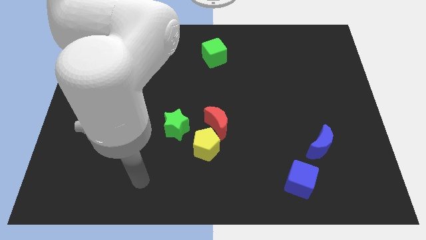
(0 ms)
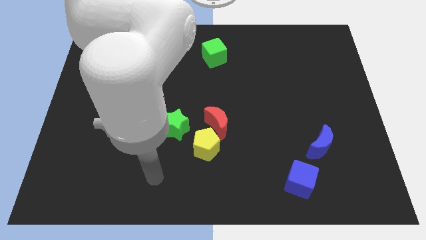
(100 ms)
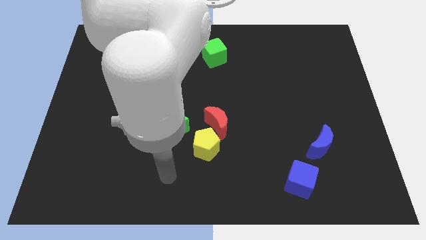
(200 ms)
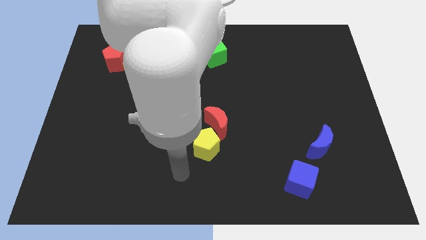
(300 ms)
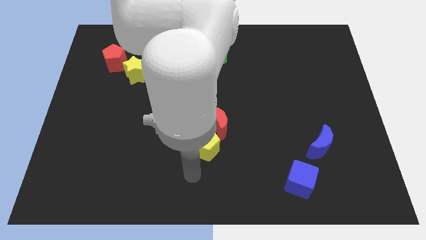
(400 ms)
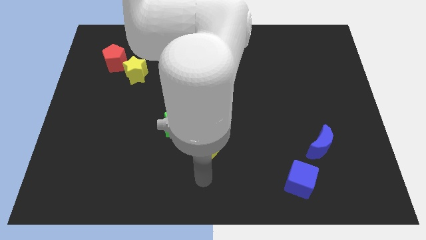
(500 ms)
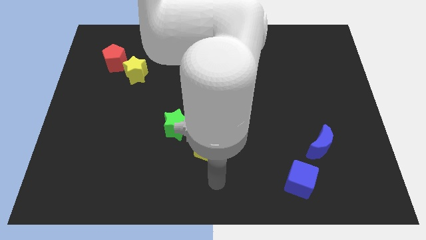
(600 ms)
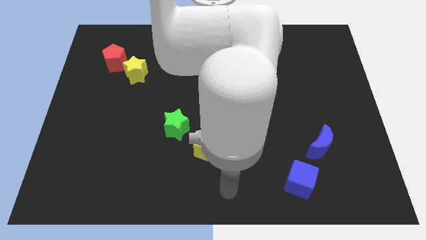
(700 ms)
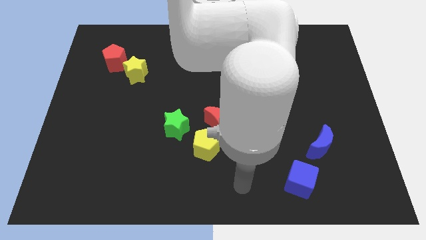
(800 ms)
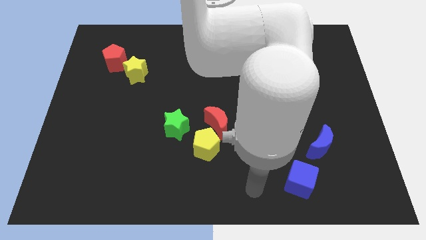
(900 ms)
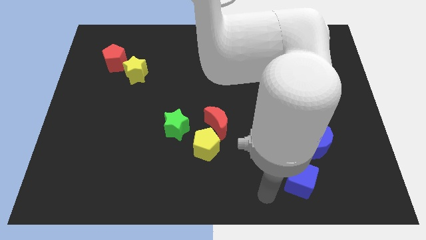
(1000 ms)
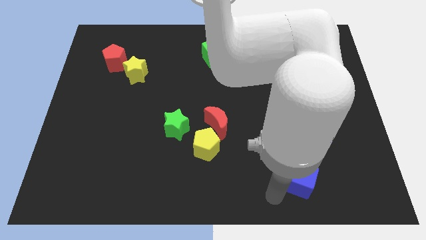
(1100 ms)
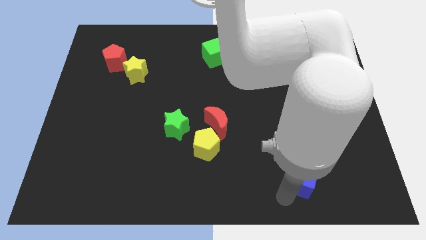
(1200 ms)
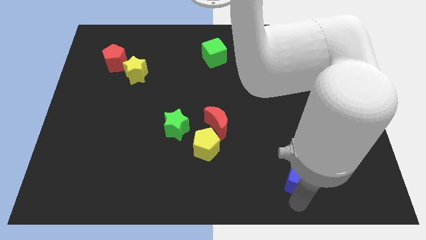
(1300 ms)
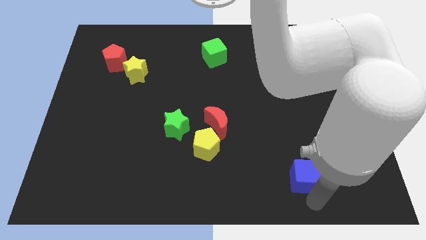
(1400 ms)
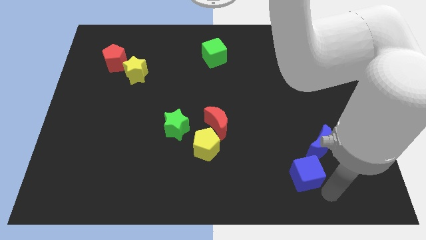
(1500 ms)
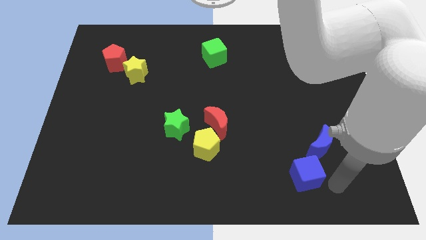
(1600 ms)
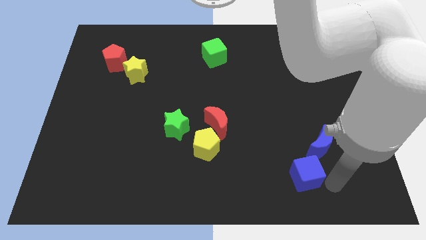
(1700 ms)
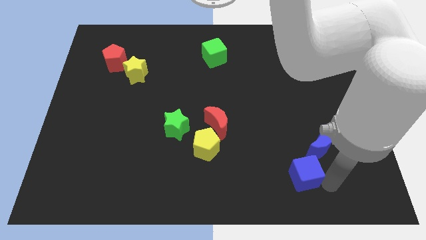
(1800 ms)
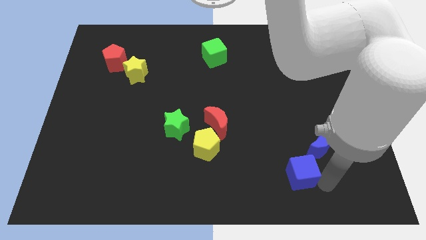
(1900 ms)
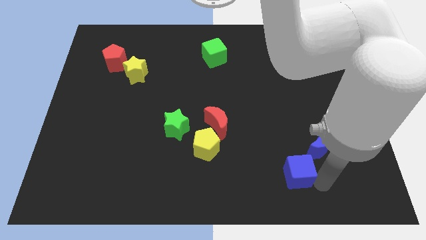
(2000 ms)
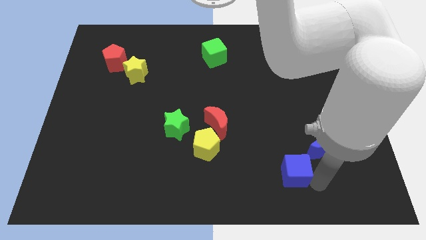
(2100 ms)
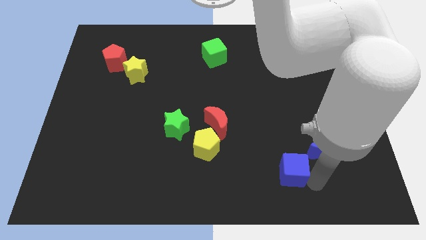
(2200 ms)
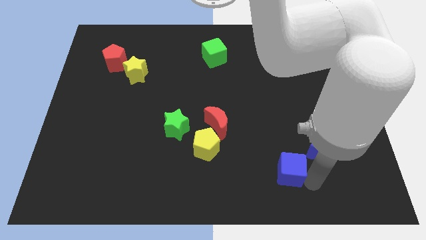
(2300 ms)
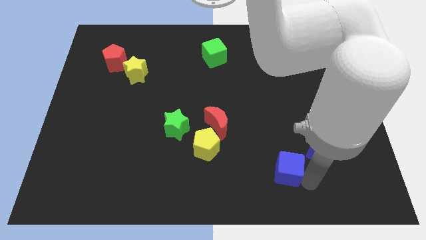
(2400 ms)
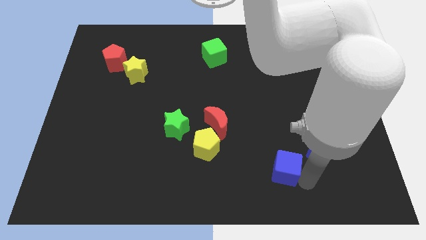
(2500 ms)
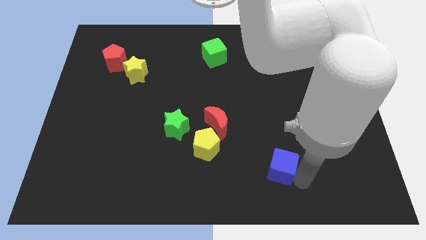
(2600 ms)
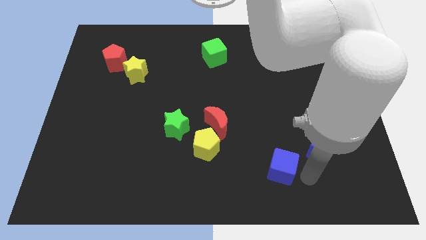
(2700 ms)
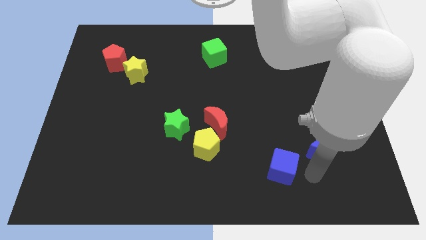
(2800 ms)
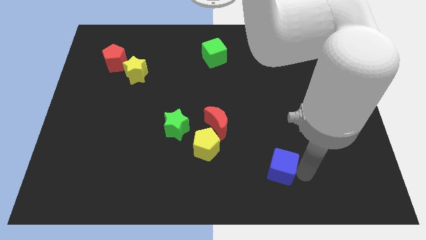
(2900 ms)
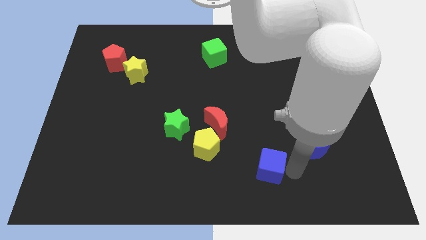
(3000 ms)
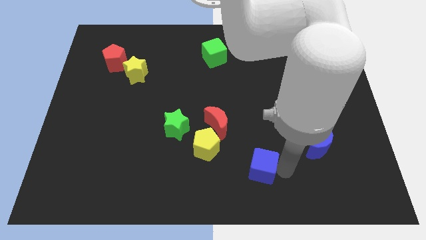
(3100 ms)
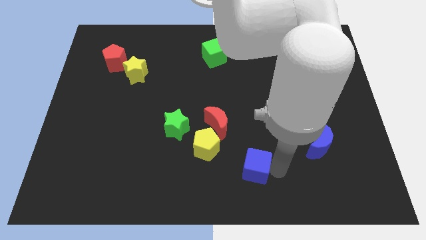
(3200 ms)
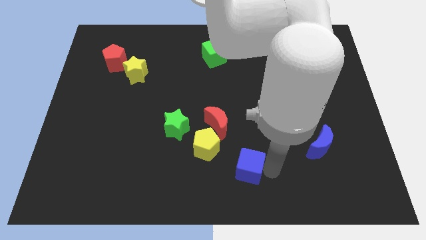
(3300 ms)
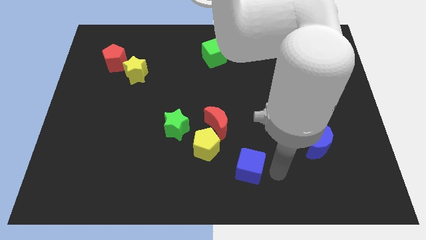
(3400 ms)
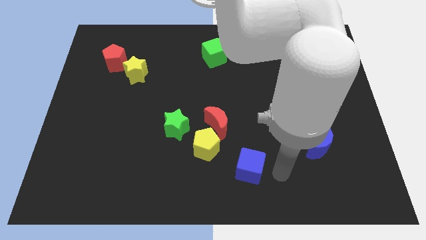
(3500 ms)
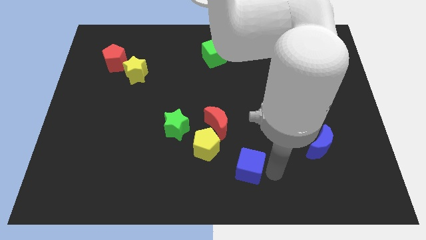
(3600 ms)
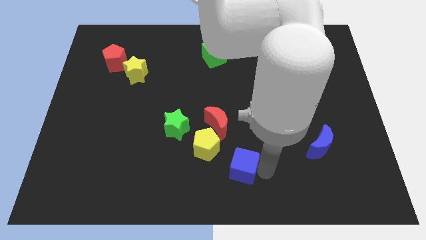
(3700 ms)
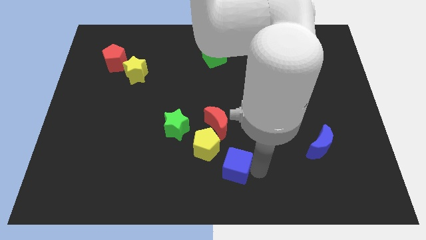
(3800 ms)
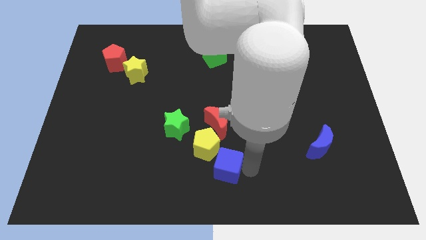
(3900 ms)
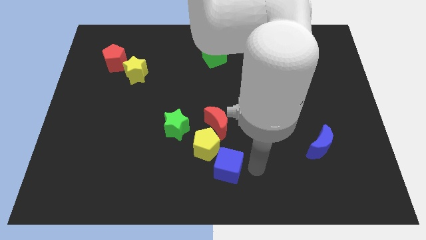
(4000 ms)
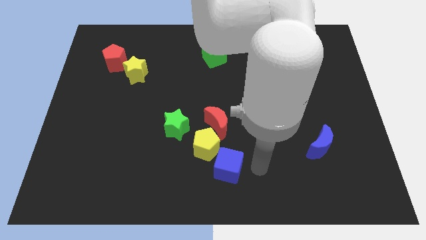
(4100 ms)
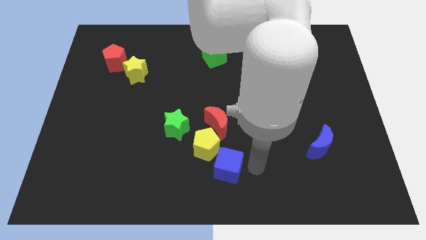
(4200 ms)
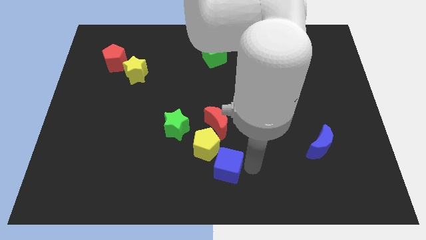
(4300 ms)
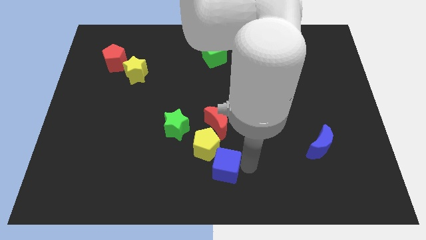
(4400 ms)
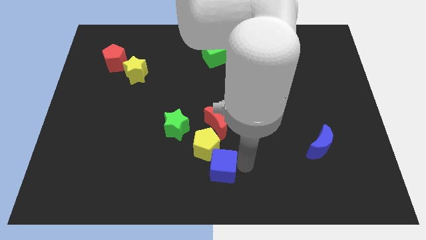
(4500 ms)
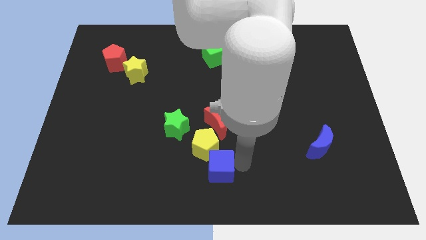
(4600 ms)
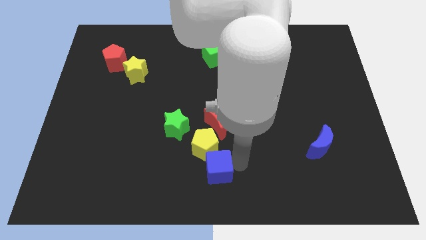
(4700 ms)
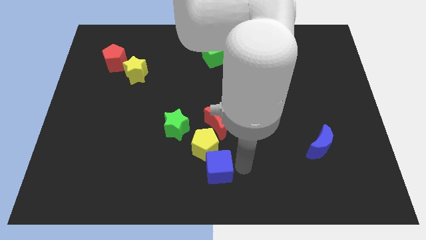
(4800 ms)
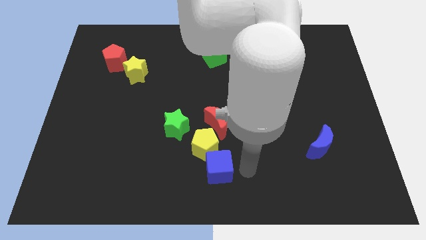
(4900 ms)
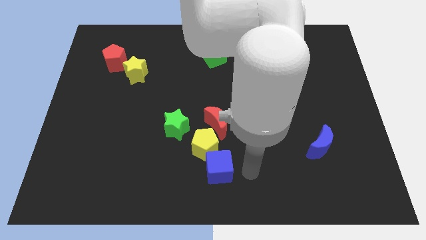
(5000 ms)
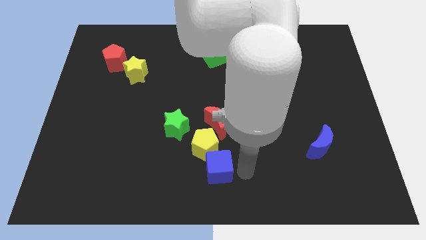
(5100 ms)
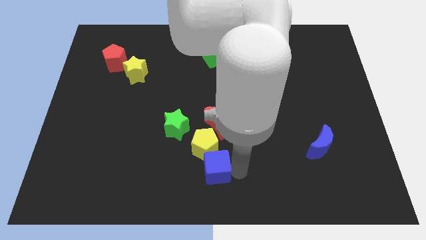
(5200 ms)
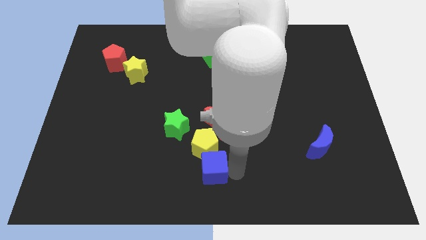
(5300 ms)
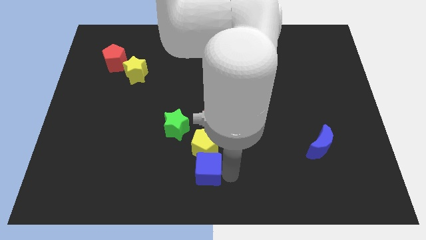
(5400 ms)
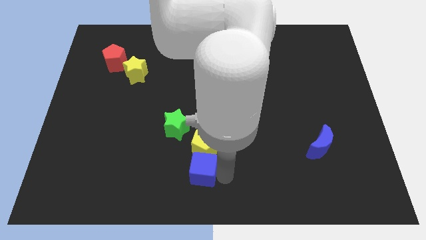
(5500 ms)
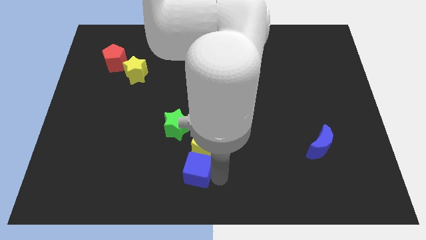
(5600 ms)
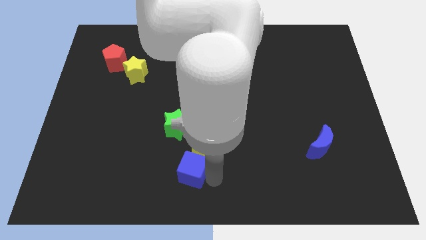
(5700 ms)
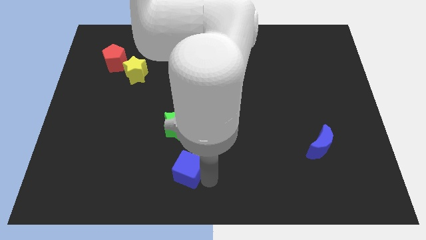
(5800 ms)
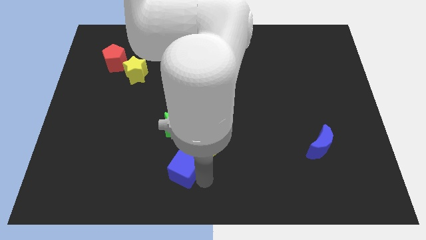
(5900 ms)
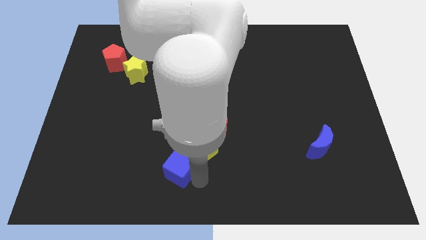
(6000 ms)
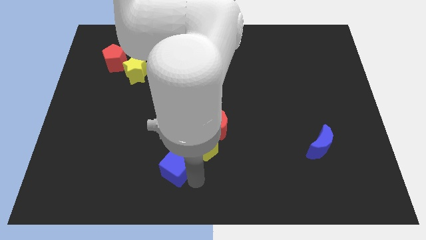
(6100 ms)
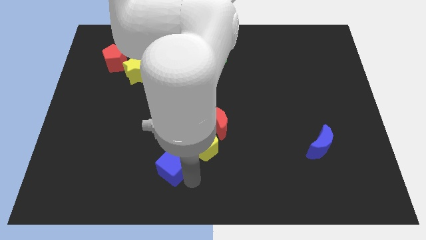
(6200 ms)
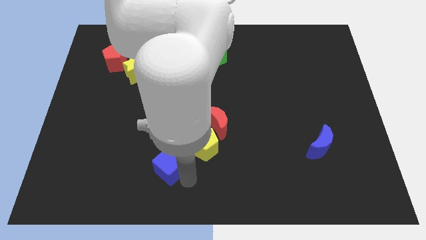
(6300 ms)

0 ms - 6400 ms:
move the blue cube just left of the yellow pentagon
